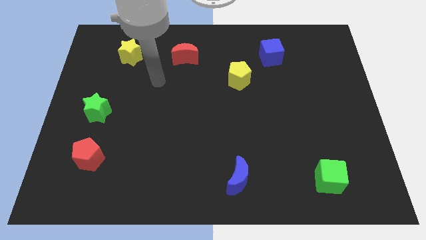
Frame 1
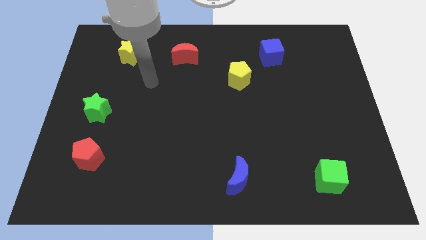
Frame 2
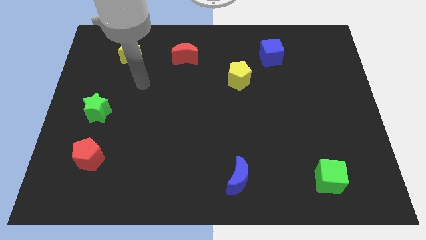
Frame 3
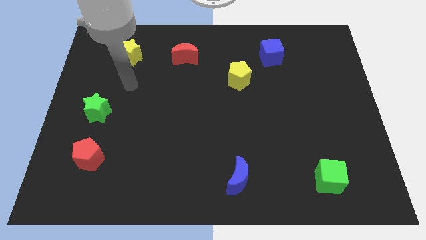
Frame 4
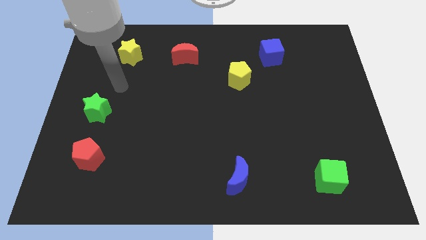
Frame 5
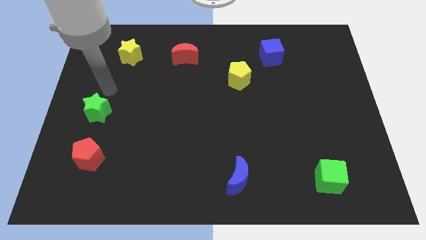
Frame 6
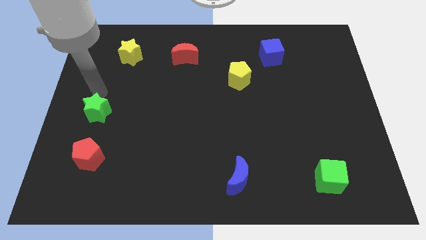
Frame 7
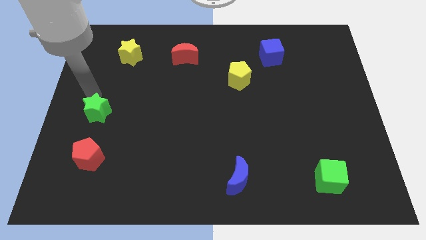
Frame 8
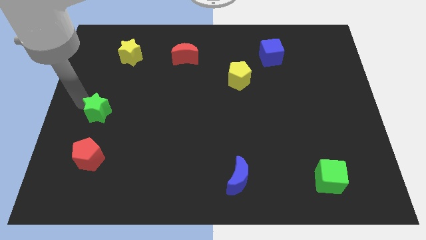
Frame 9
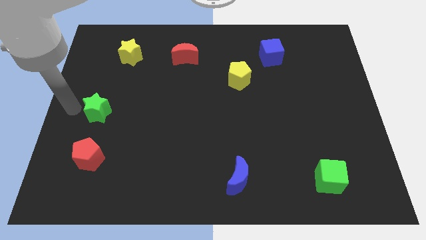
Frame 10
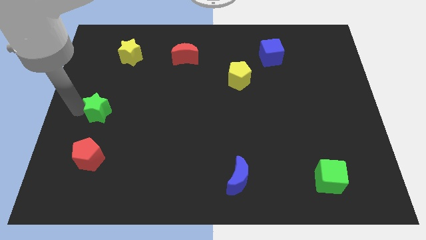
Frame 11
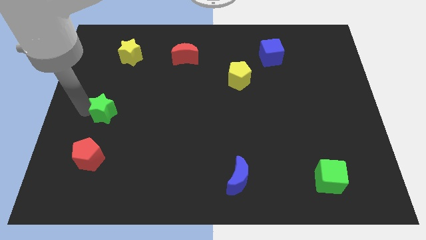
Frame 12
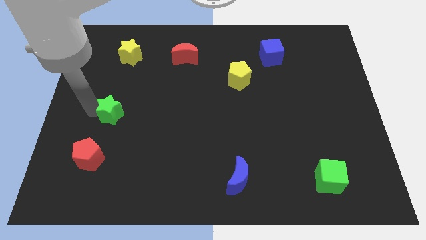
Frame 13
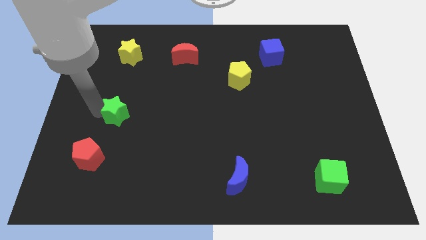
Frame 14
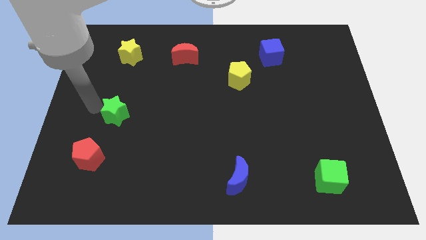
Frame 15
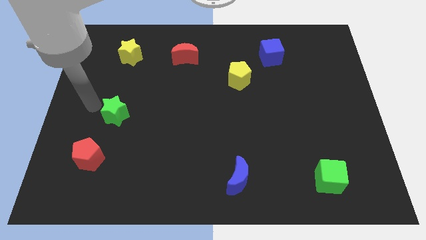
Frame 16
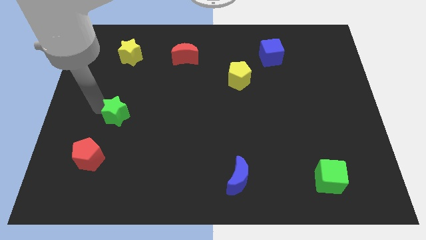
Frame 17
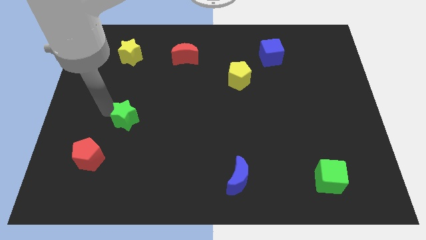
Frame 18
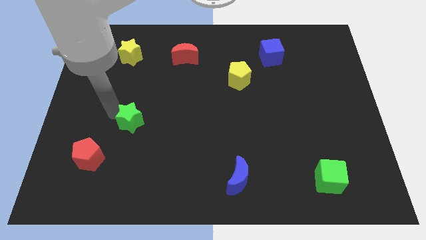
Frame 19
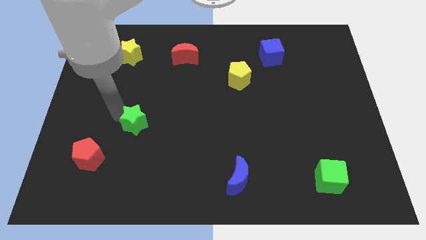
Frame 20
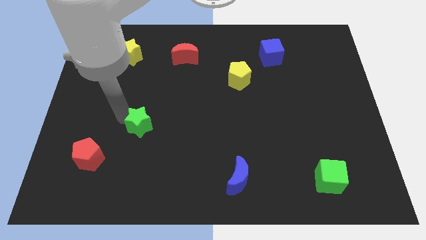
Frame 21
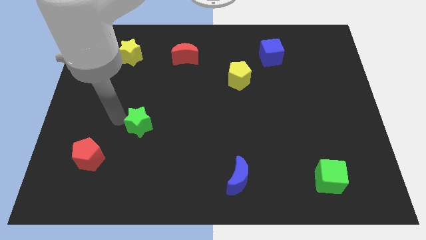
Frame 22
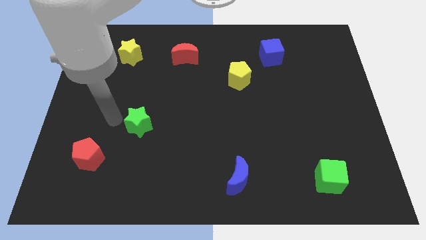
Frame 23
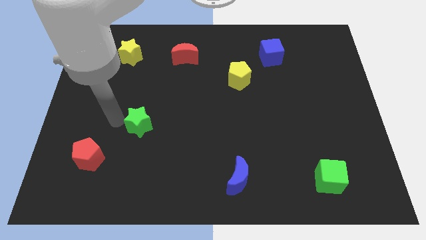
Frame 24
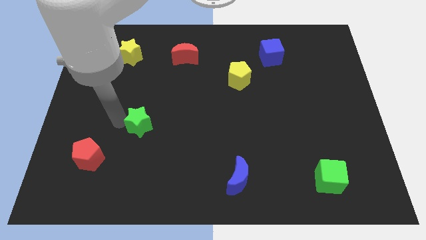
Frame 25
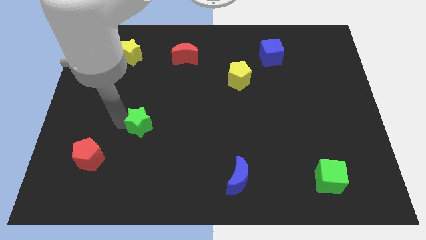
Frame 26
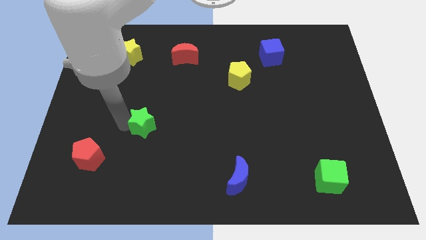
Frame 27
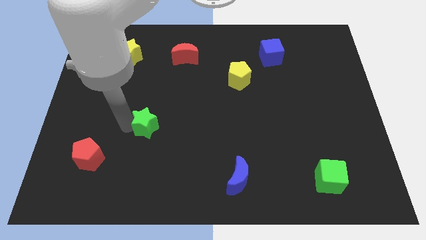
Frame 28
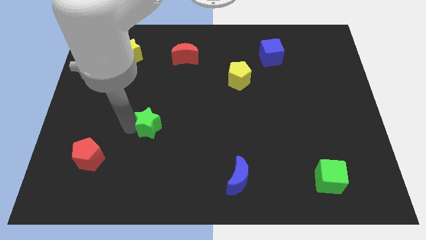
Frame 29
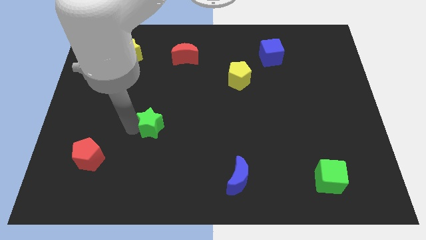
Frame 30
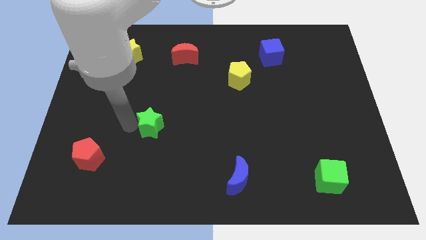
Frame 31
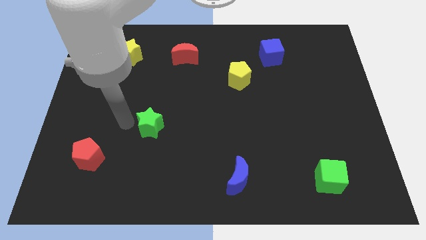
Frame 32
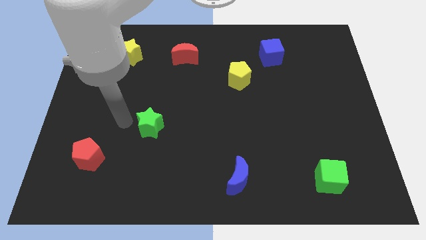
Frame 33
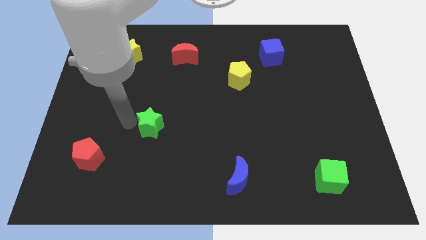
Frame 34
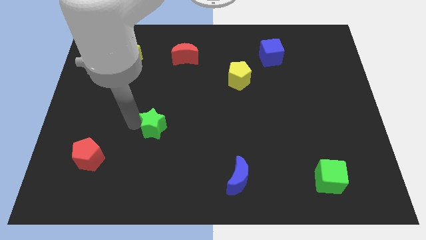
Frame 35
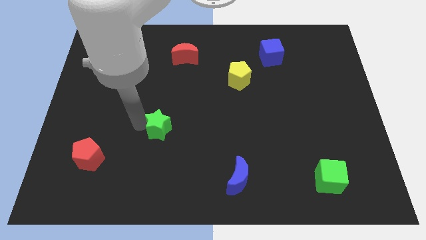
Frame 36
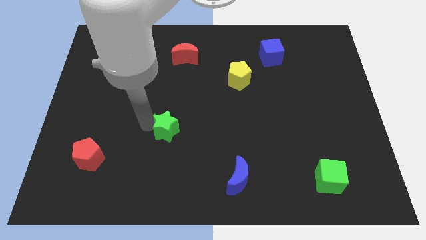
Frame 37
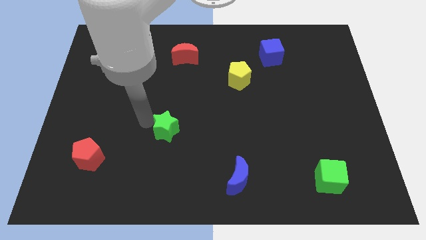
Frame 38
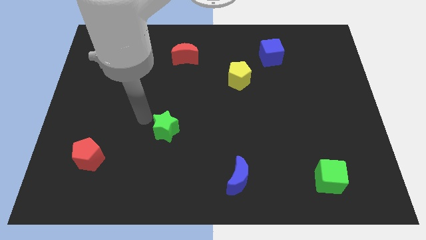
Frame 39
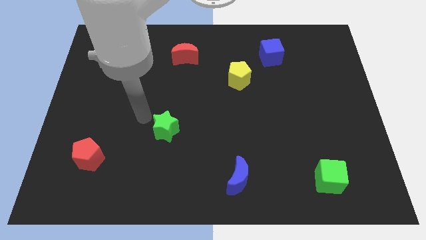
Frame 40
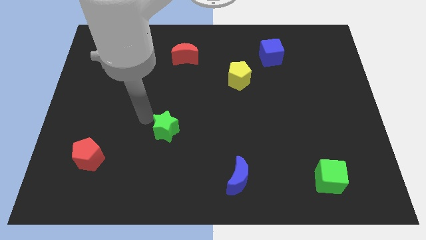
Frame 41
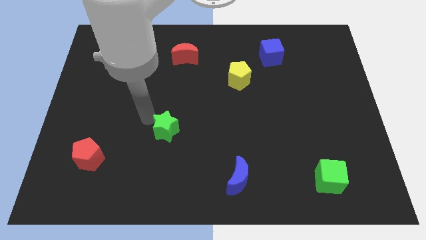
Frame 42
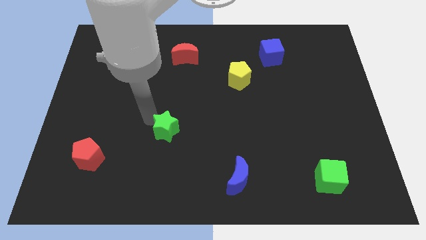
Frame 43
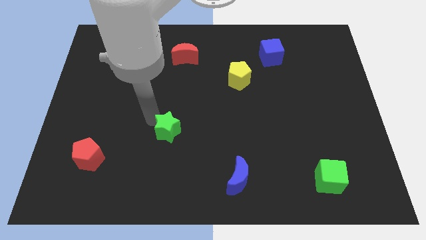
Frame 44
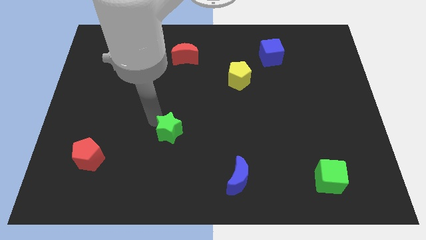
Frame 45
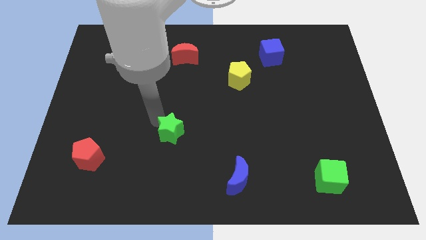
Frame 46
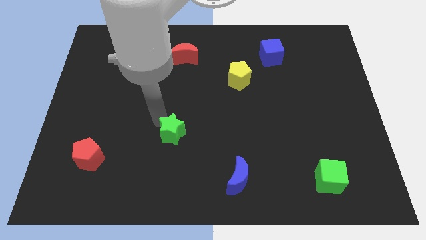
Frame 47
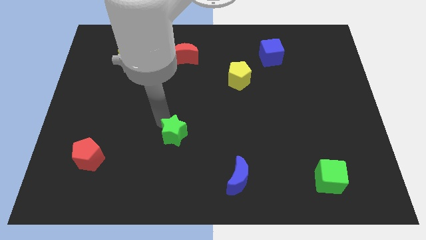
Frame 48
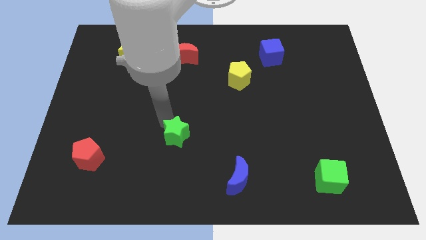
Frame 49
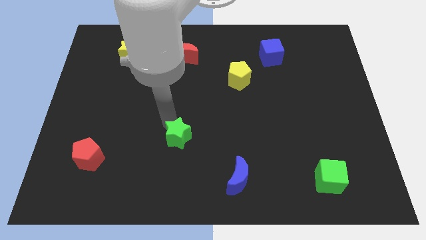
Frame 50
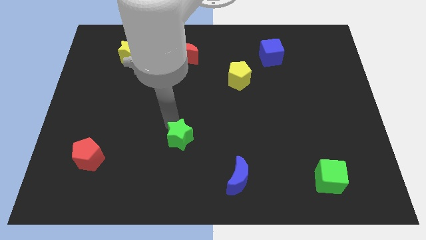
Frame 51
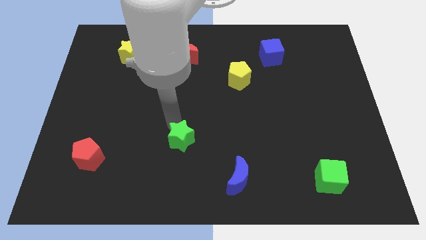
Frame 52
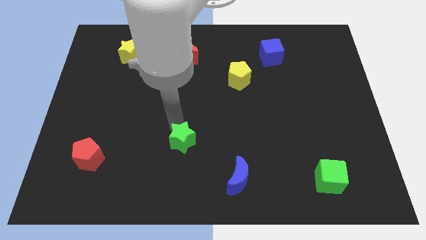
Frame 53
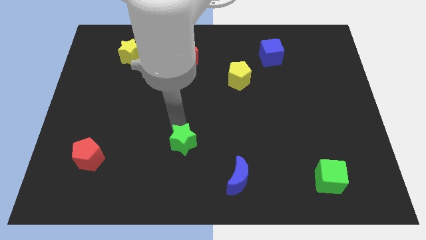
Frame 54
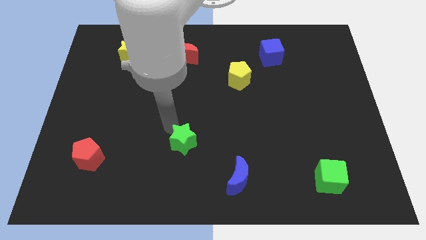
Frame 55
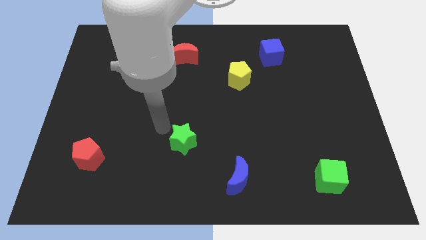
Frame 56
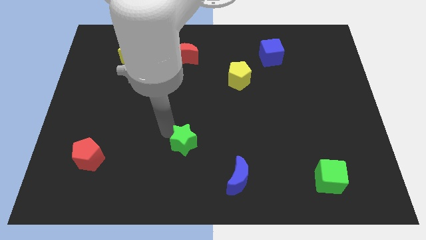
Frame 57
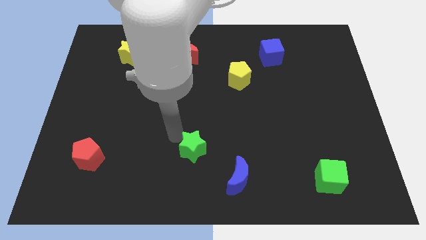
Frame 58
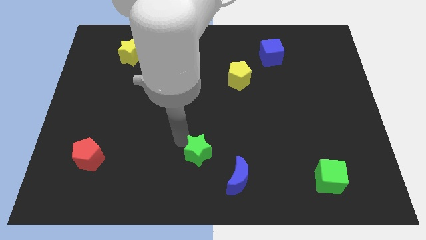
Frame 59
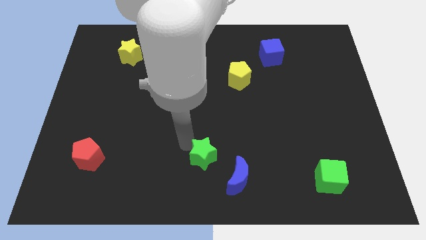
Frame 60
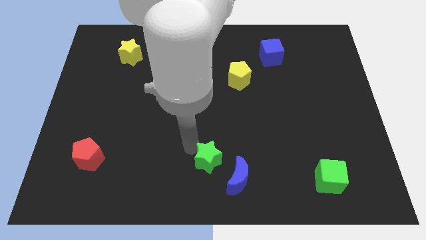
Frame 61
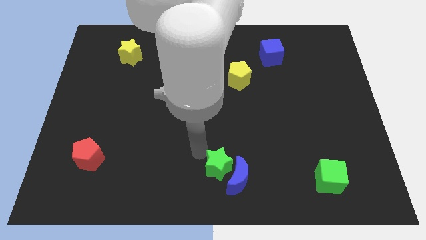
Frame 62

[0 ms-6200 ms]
slide the green star towards the blue moon

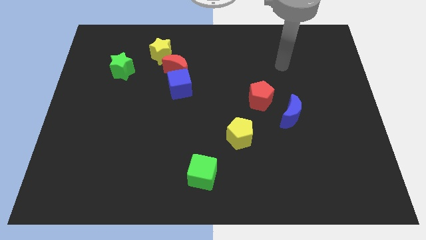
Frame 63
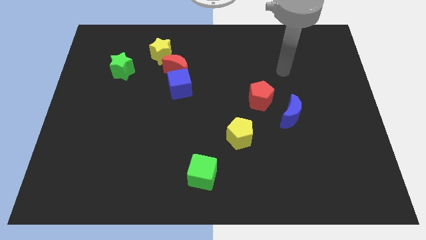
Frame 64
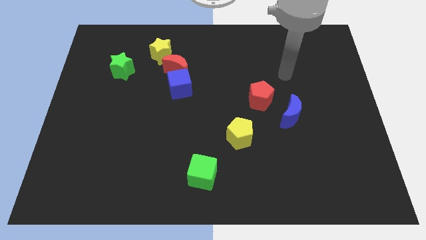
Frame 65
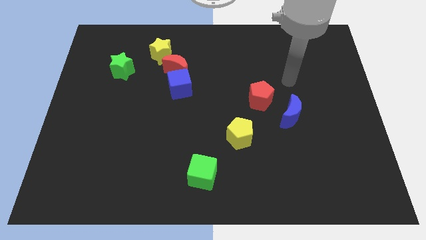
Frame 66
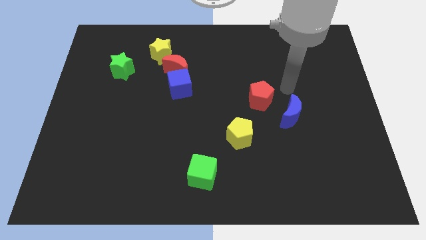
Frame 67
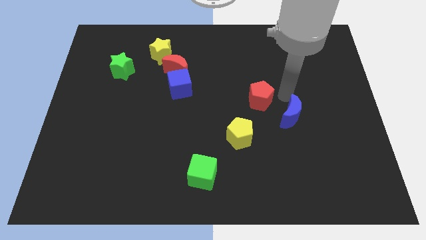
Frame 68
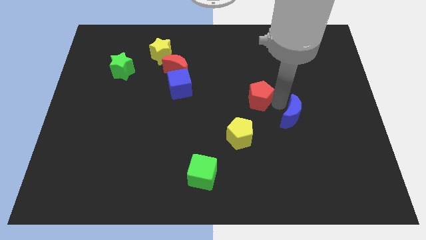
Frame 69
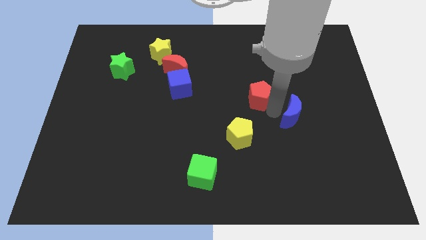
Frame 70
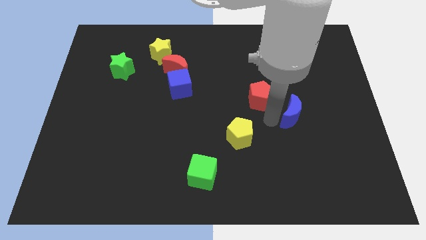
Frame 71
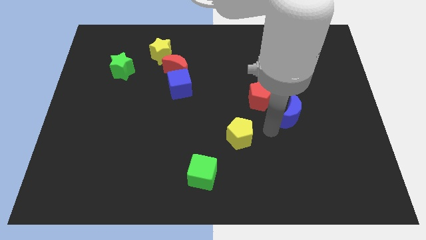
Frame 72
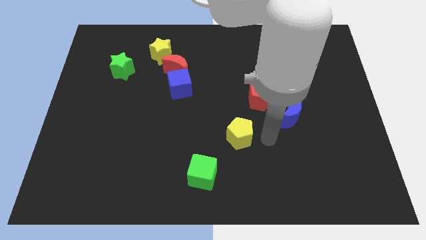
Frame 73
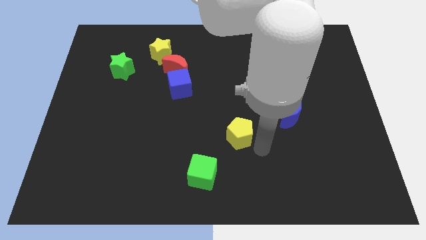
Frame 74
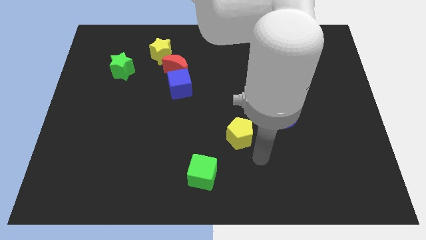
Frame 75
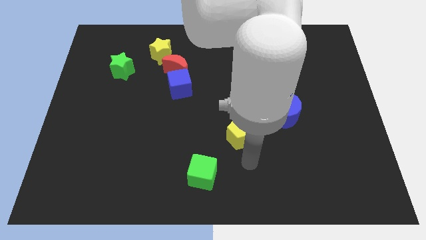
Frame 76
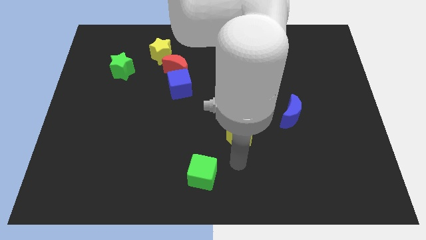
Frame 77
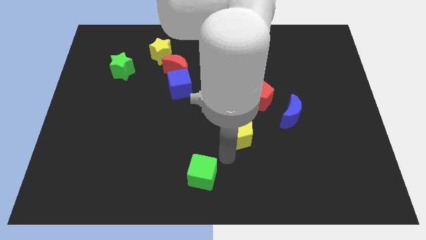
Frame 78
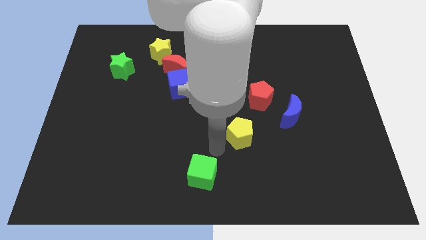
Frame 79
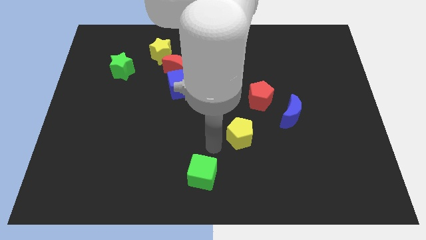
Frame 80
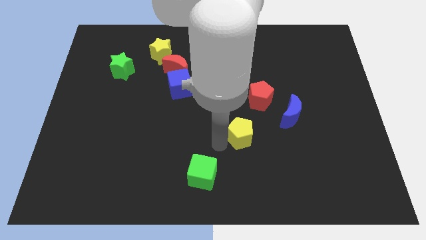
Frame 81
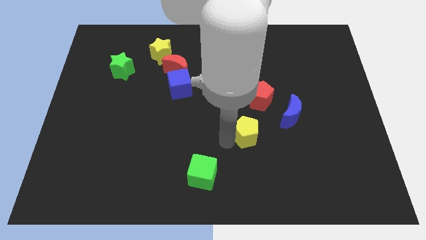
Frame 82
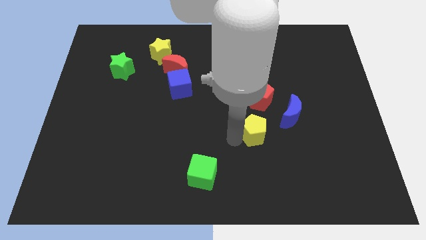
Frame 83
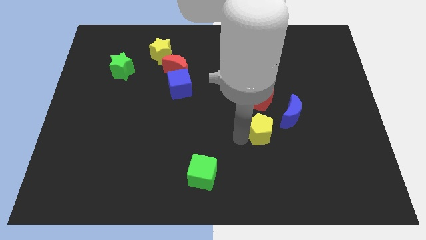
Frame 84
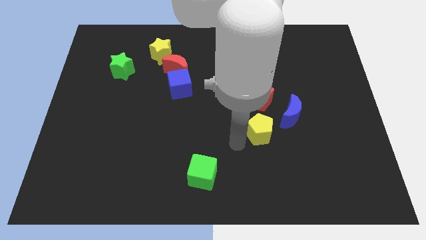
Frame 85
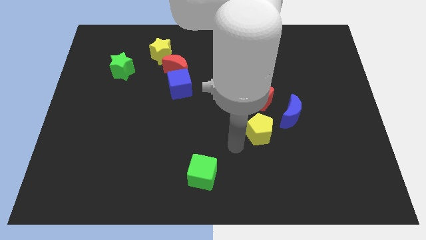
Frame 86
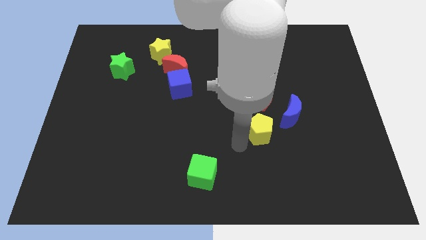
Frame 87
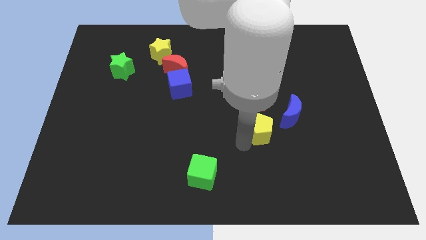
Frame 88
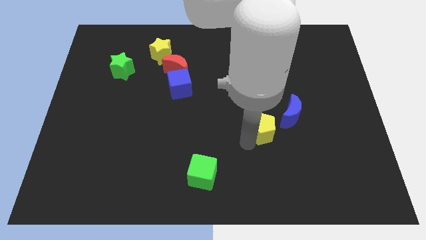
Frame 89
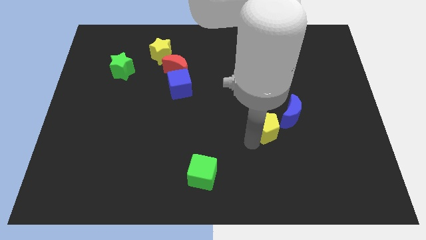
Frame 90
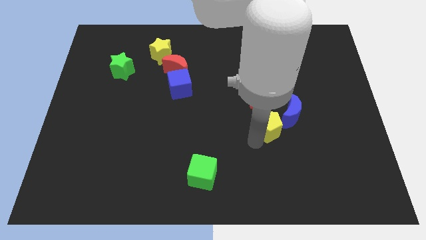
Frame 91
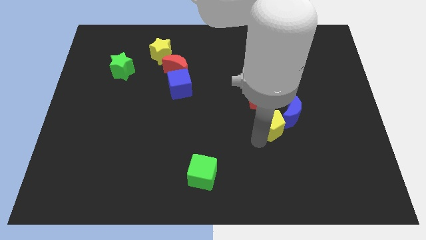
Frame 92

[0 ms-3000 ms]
put the yellow pentagon next to the blue moon
